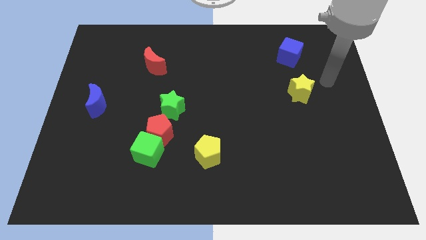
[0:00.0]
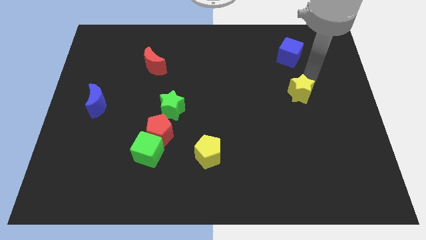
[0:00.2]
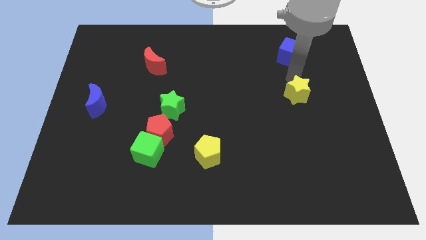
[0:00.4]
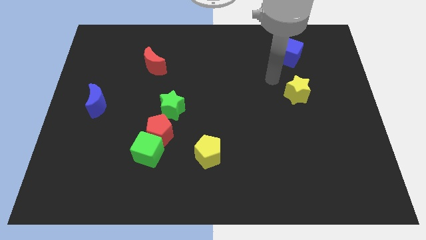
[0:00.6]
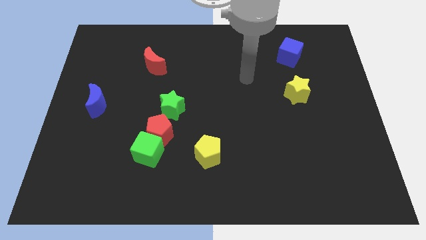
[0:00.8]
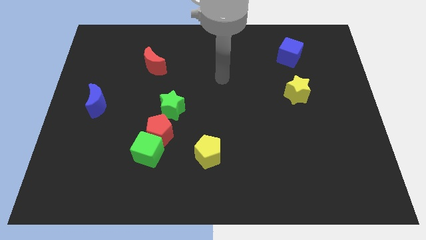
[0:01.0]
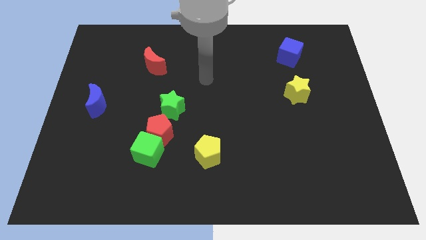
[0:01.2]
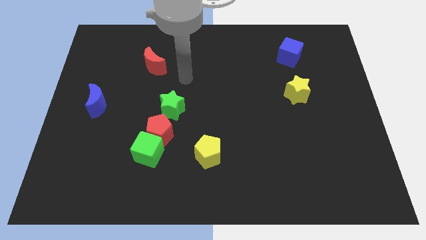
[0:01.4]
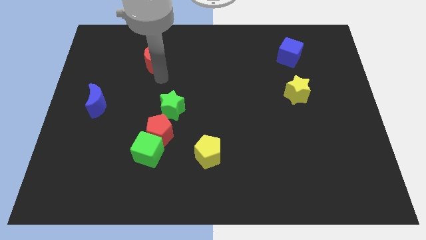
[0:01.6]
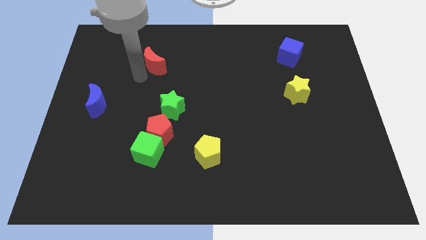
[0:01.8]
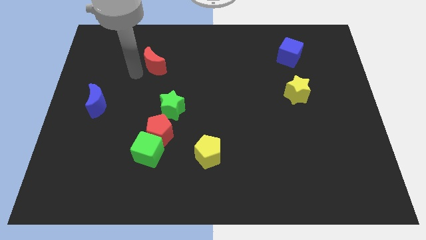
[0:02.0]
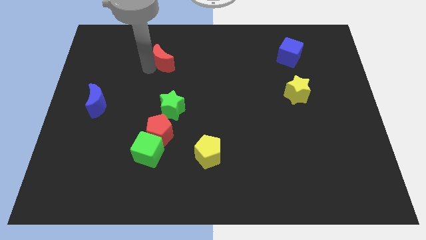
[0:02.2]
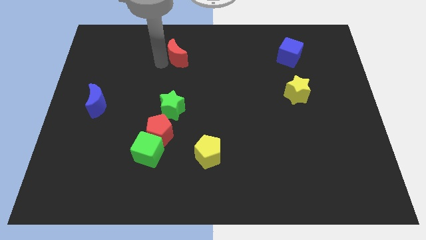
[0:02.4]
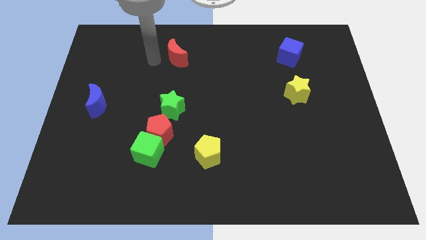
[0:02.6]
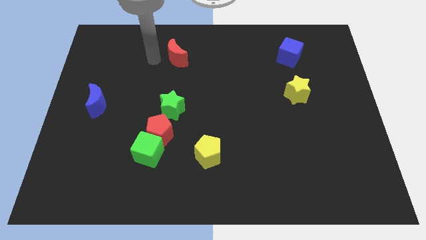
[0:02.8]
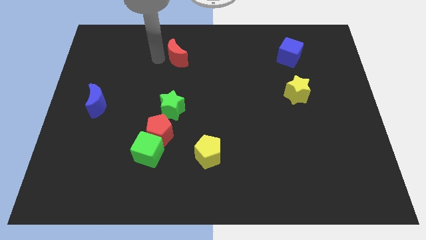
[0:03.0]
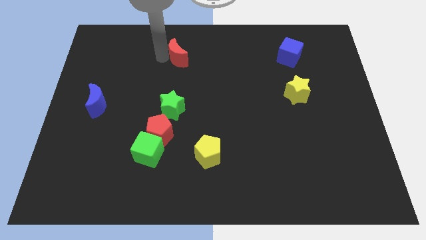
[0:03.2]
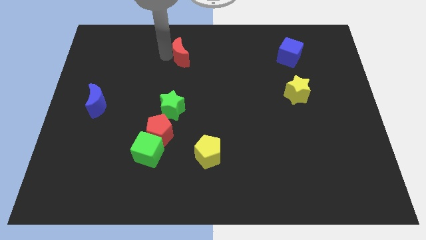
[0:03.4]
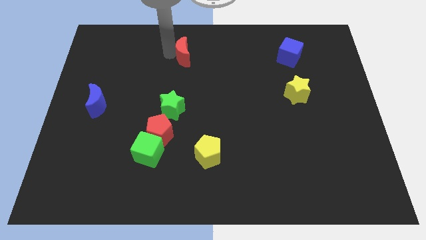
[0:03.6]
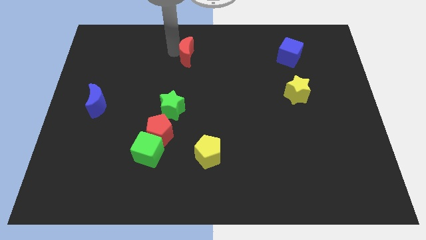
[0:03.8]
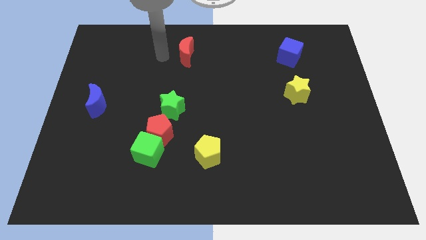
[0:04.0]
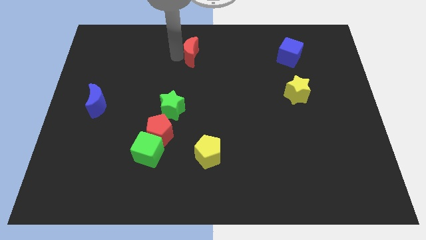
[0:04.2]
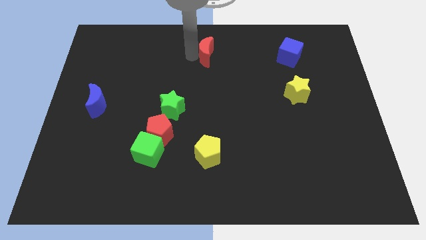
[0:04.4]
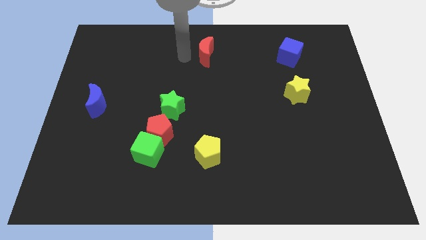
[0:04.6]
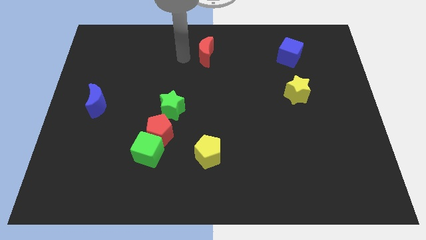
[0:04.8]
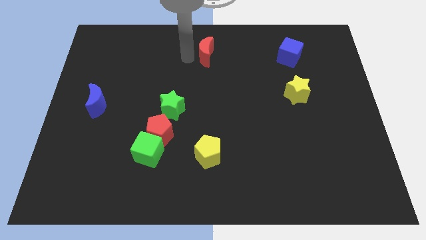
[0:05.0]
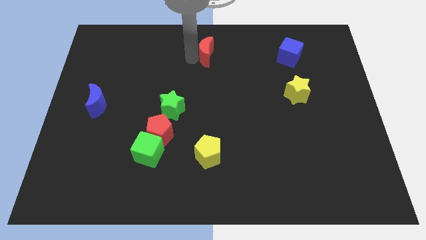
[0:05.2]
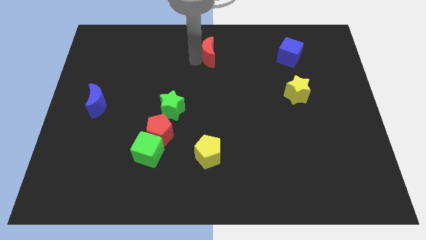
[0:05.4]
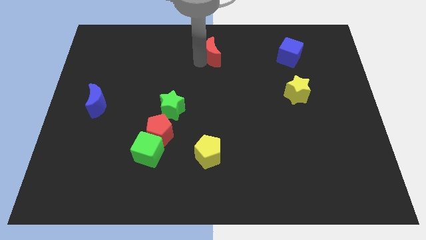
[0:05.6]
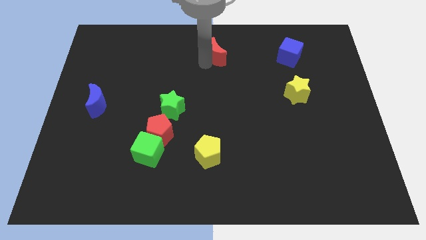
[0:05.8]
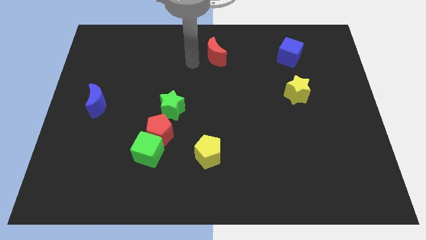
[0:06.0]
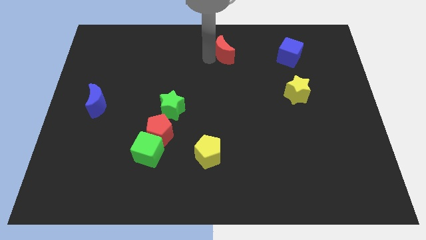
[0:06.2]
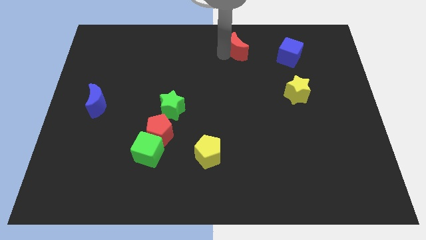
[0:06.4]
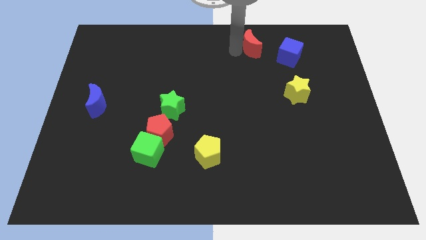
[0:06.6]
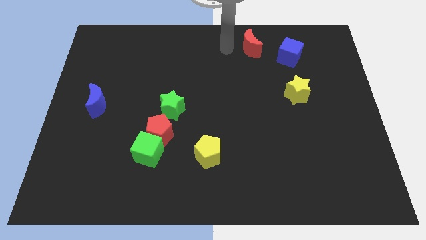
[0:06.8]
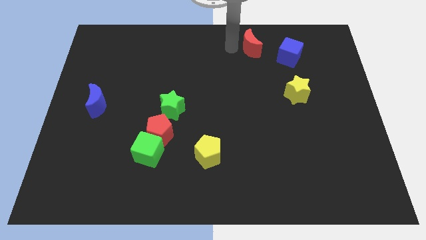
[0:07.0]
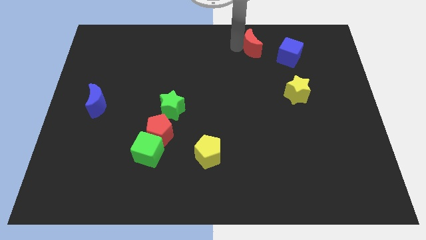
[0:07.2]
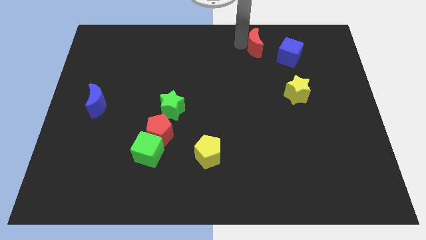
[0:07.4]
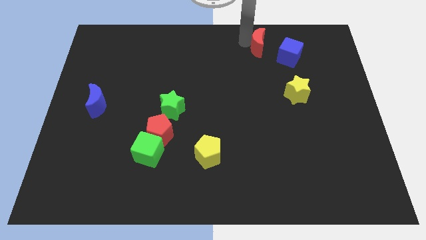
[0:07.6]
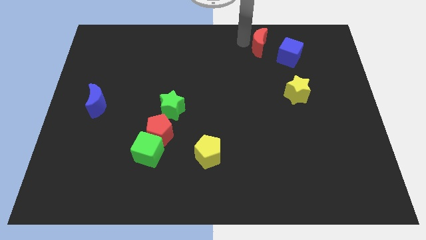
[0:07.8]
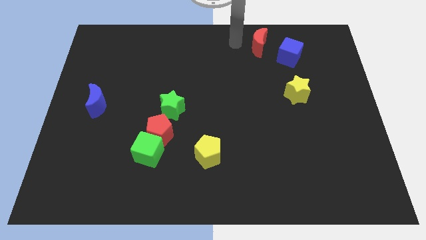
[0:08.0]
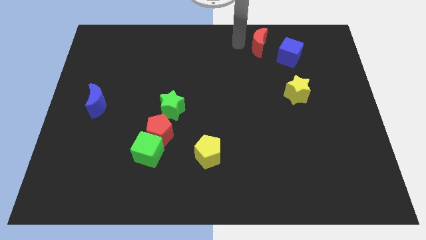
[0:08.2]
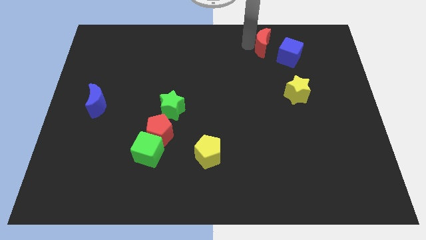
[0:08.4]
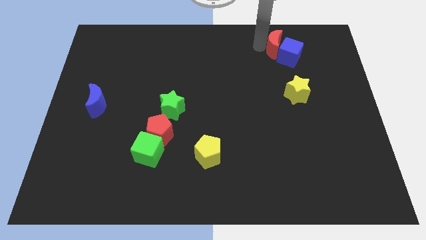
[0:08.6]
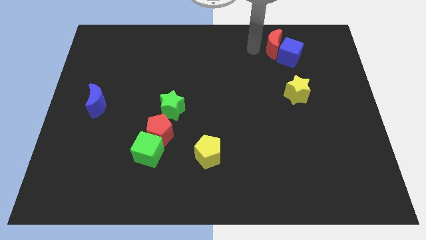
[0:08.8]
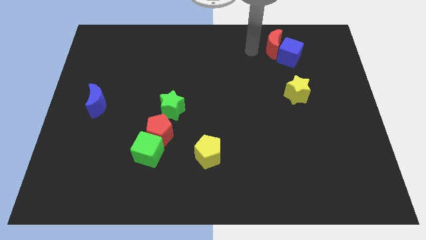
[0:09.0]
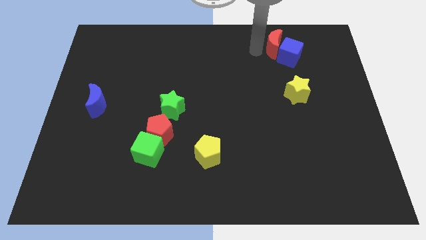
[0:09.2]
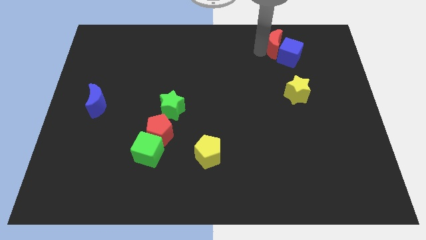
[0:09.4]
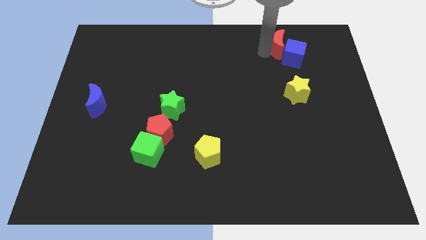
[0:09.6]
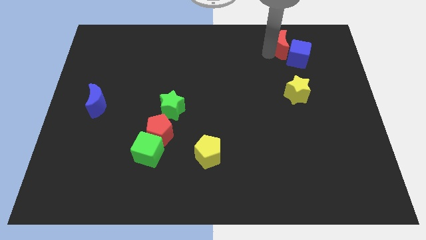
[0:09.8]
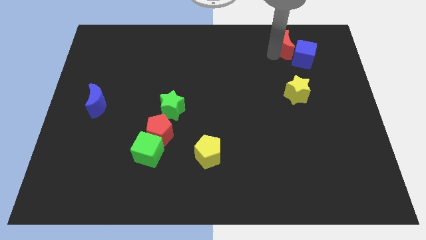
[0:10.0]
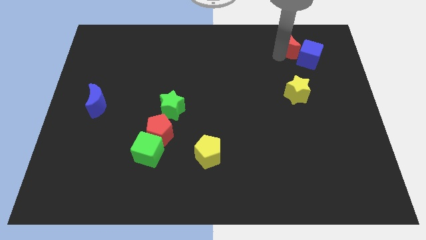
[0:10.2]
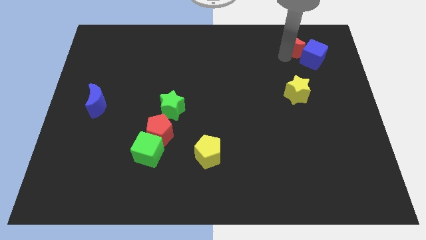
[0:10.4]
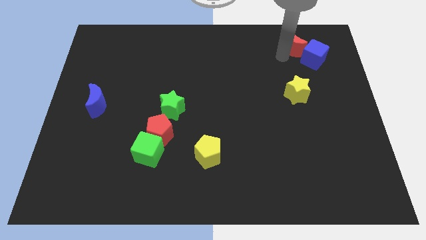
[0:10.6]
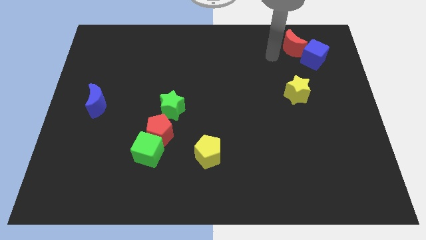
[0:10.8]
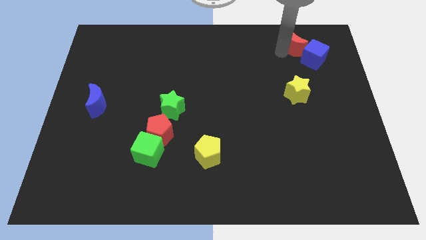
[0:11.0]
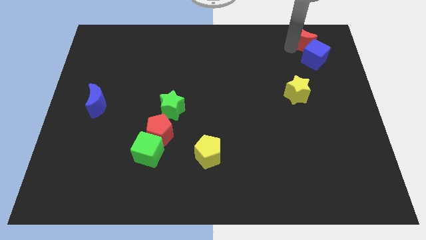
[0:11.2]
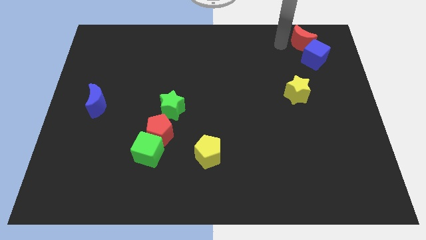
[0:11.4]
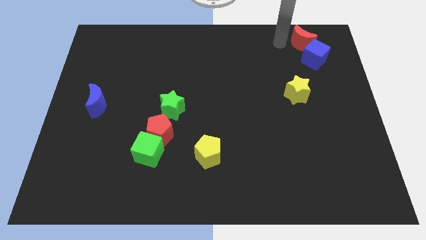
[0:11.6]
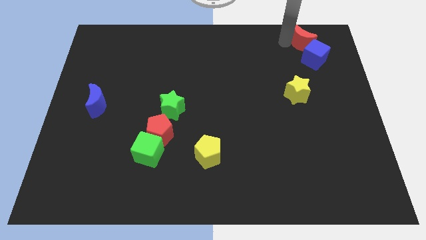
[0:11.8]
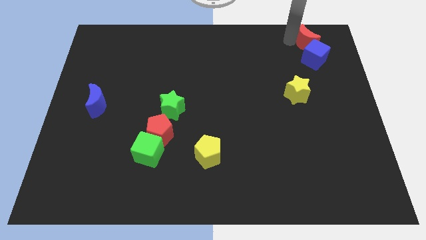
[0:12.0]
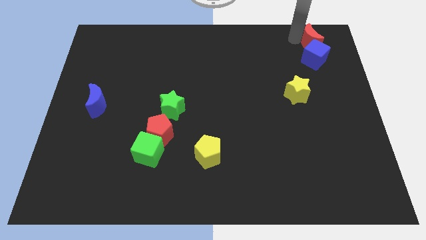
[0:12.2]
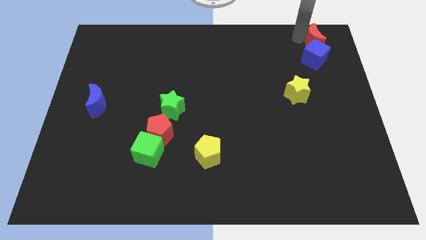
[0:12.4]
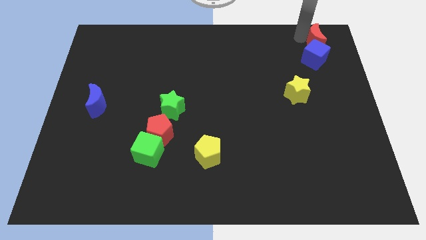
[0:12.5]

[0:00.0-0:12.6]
put the red moon to the top right of the board
